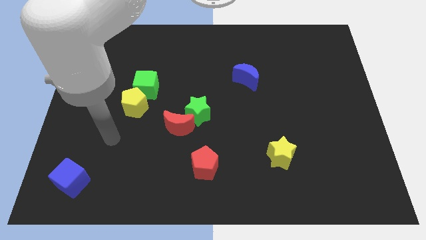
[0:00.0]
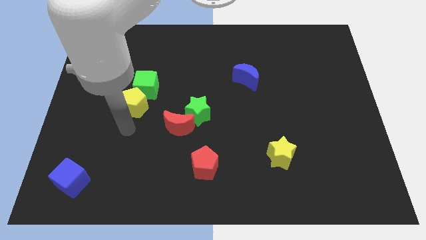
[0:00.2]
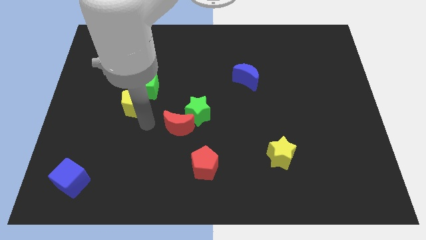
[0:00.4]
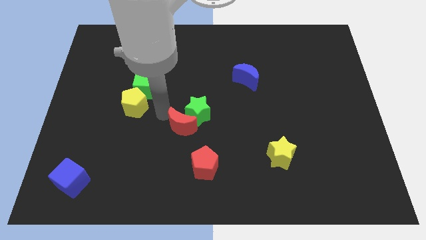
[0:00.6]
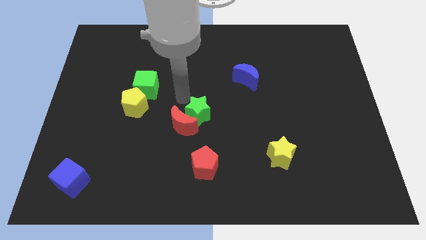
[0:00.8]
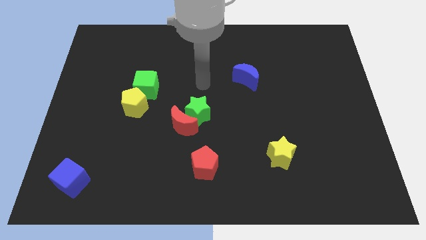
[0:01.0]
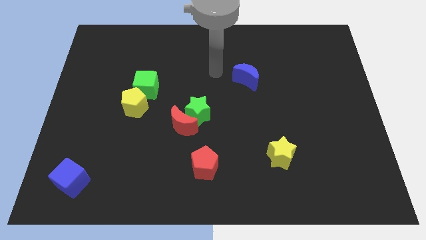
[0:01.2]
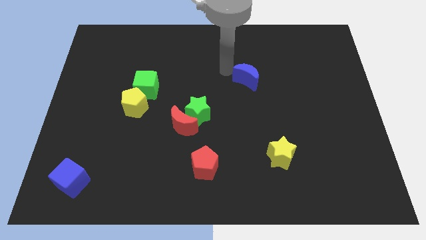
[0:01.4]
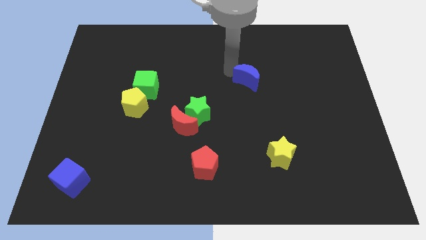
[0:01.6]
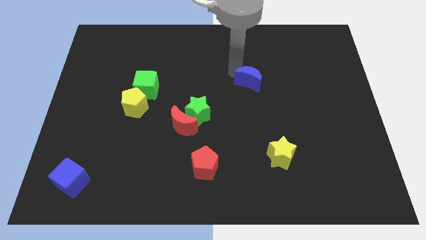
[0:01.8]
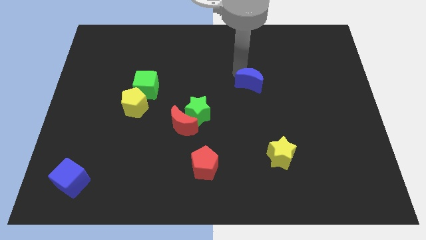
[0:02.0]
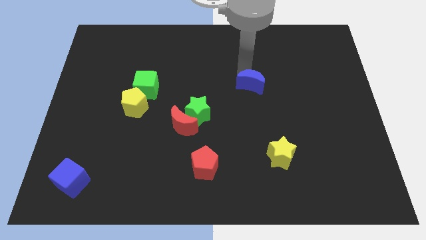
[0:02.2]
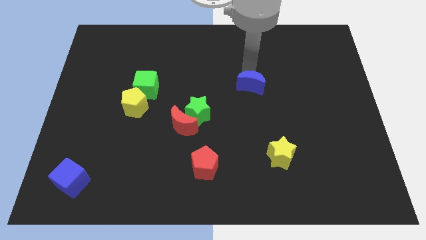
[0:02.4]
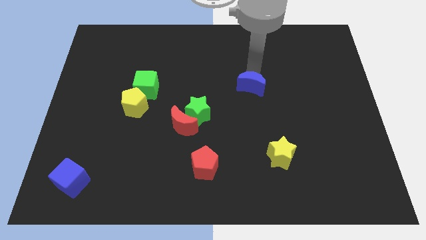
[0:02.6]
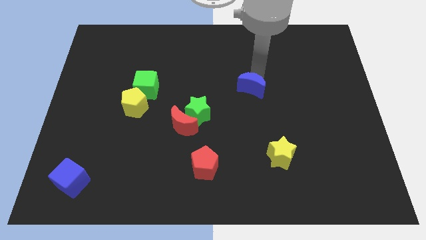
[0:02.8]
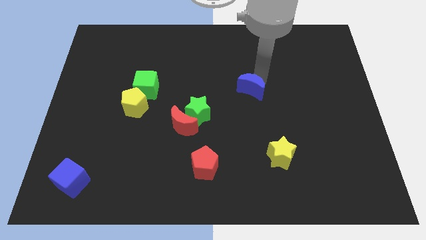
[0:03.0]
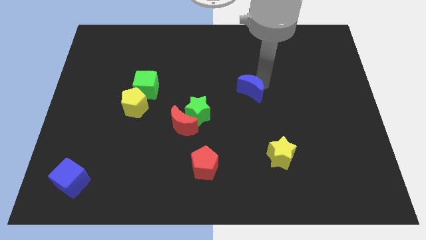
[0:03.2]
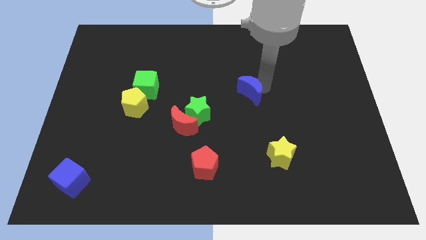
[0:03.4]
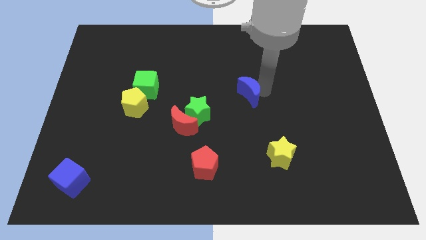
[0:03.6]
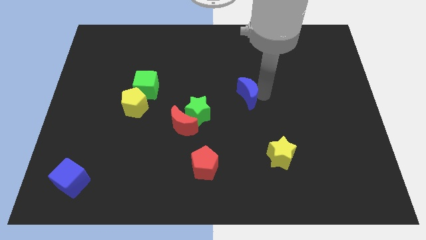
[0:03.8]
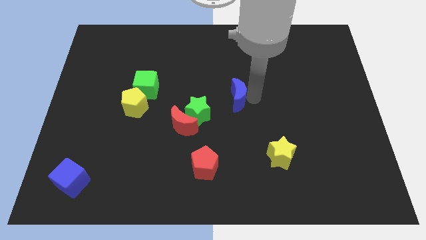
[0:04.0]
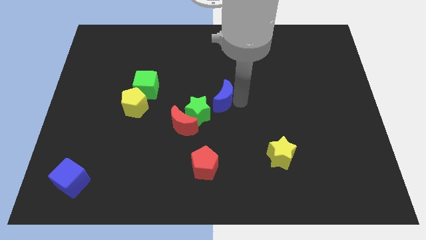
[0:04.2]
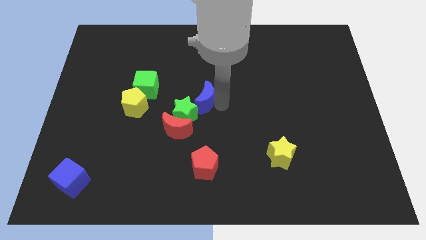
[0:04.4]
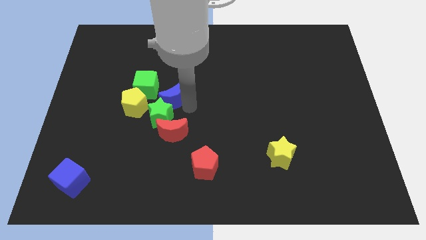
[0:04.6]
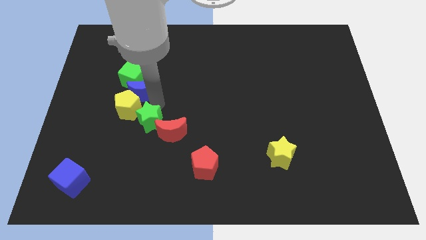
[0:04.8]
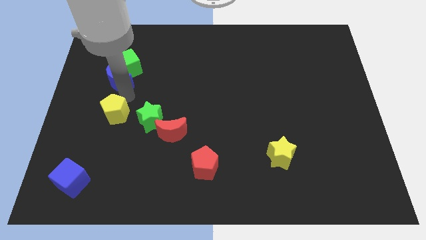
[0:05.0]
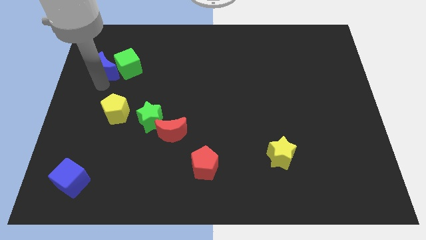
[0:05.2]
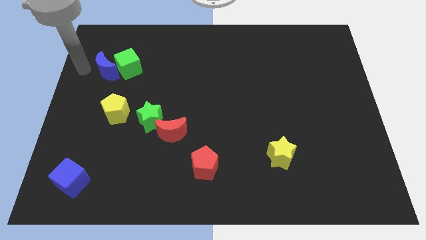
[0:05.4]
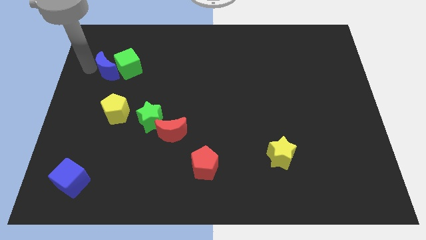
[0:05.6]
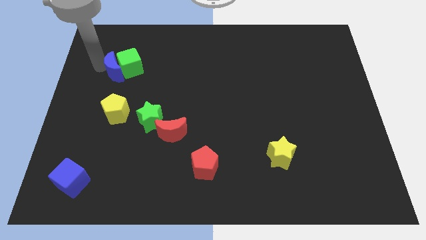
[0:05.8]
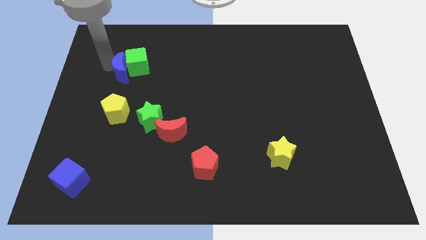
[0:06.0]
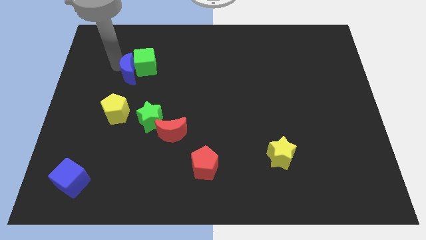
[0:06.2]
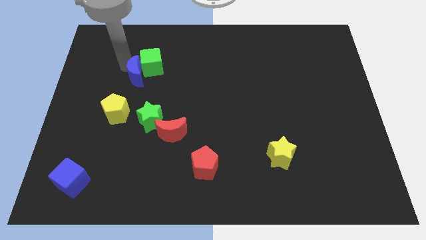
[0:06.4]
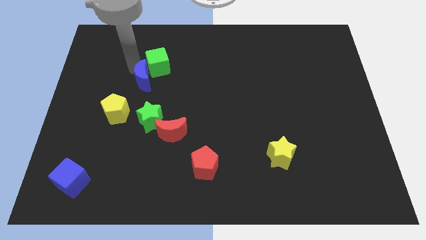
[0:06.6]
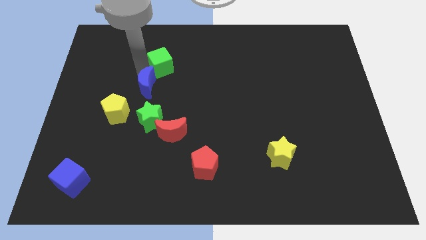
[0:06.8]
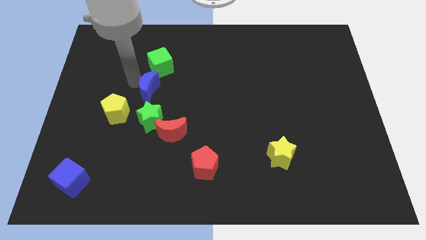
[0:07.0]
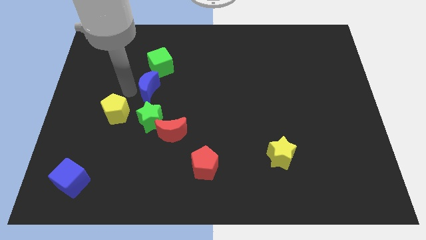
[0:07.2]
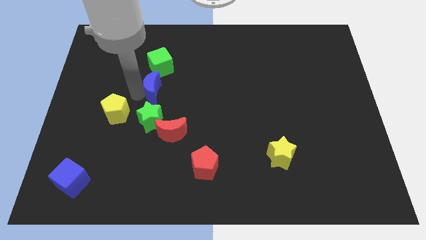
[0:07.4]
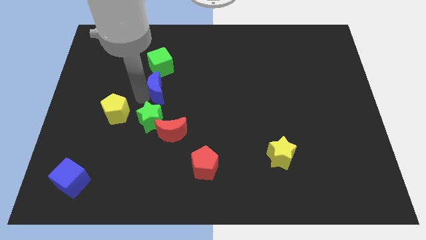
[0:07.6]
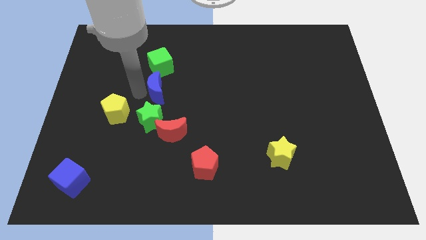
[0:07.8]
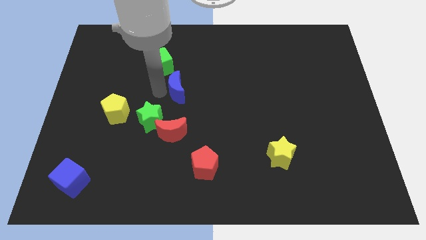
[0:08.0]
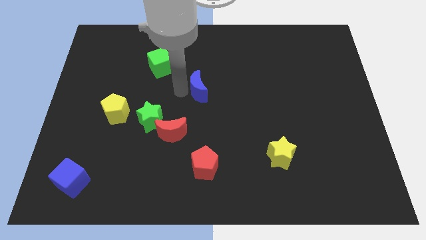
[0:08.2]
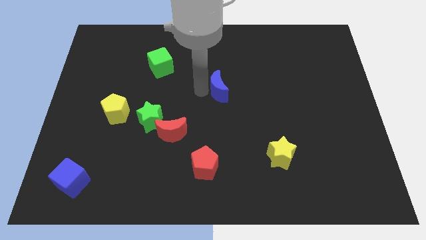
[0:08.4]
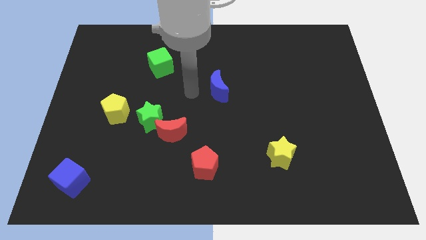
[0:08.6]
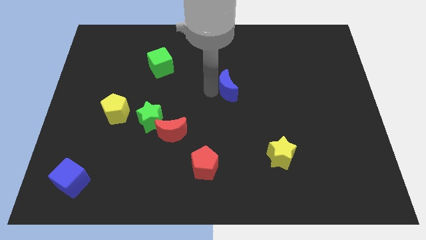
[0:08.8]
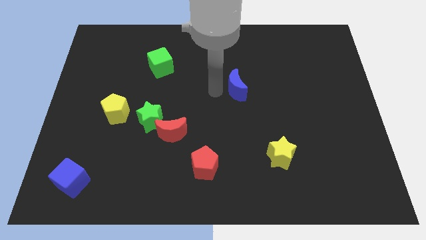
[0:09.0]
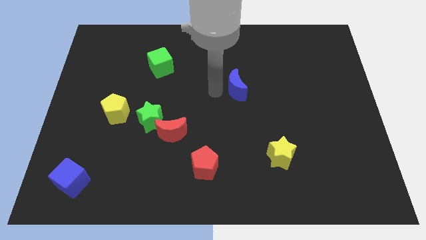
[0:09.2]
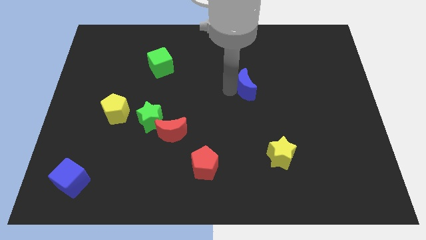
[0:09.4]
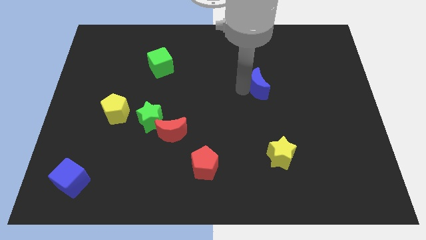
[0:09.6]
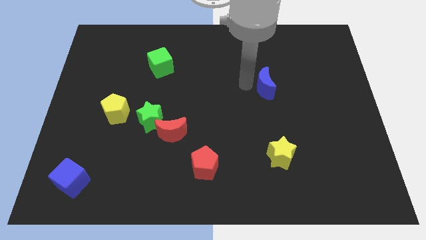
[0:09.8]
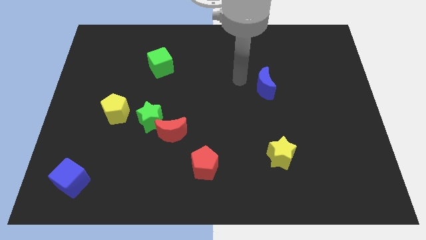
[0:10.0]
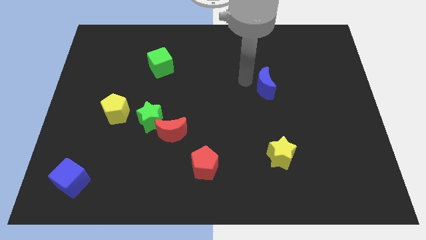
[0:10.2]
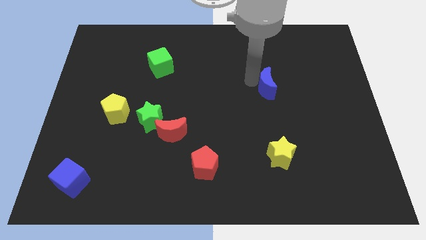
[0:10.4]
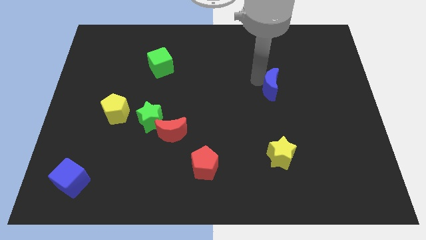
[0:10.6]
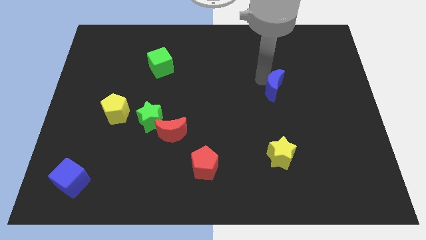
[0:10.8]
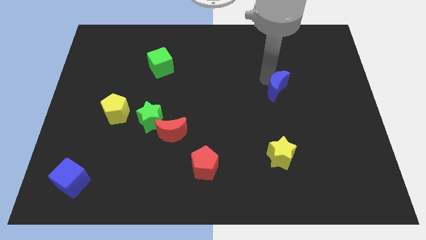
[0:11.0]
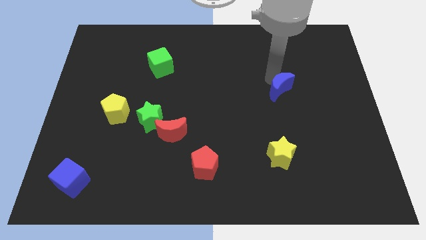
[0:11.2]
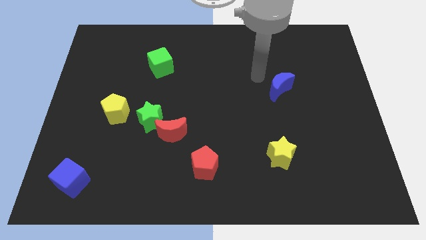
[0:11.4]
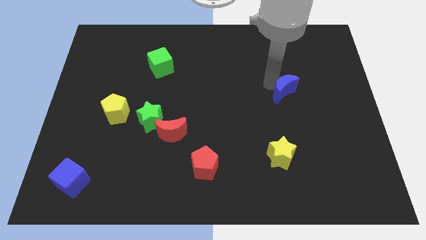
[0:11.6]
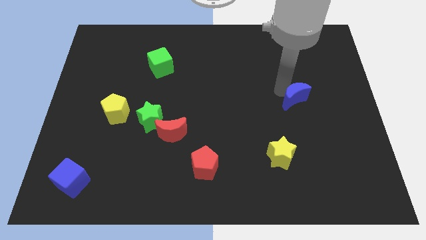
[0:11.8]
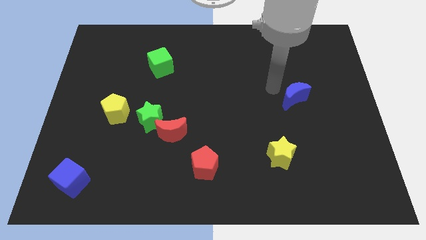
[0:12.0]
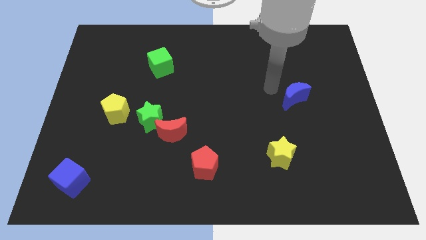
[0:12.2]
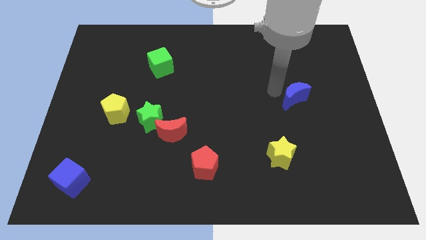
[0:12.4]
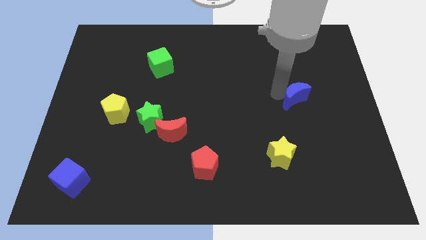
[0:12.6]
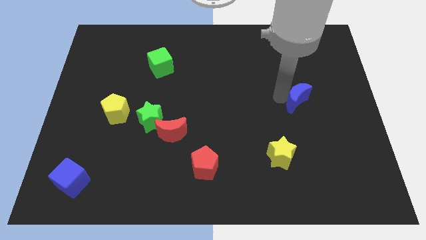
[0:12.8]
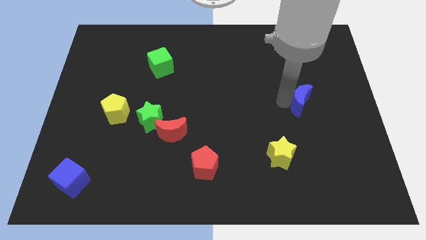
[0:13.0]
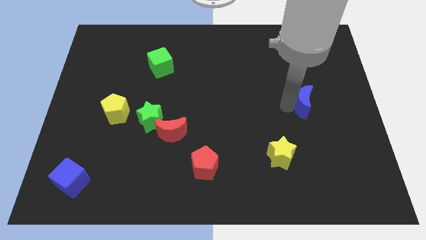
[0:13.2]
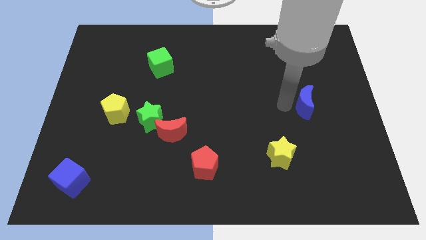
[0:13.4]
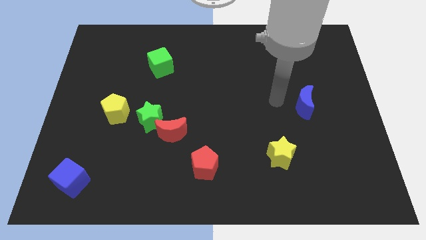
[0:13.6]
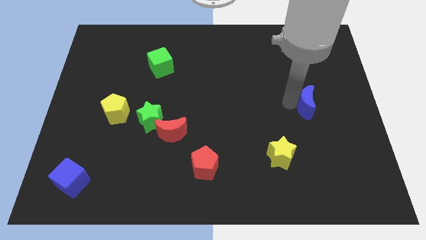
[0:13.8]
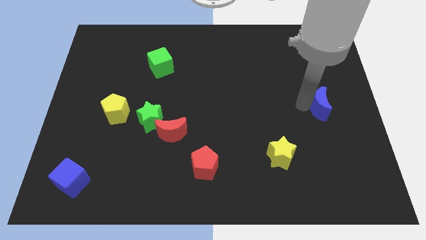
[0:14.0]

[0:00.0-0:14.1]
put the blue moon to the right side

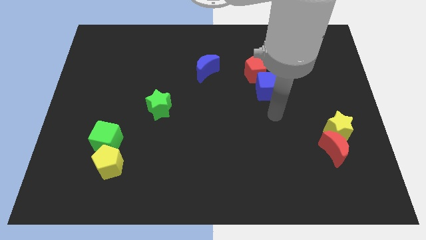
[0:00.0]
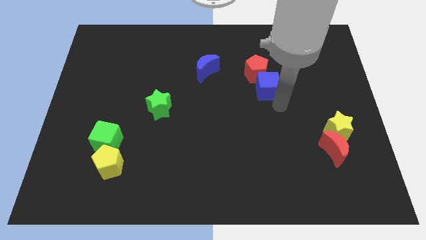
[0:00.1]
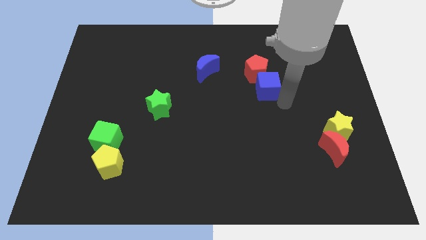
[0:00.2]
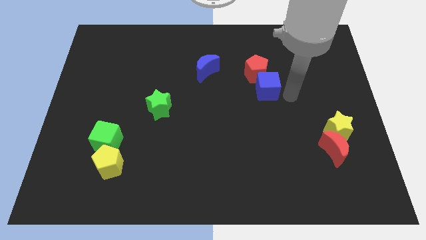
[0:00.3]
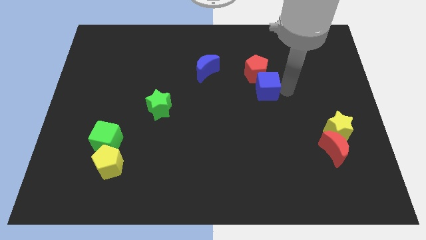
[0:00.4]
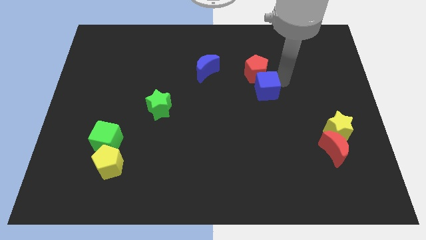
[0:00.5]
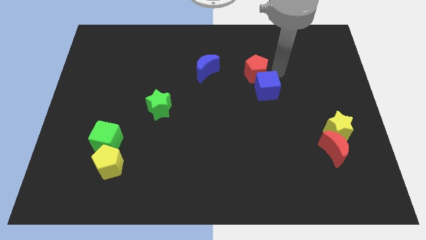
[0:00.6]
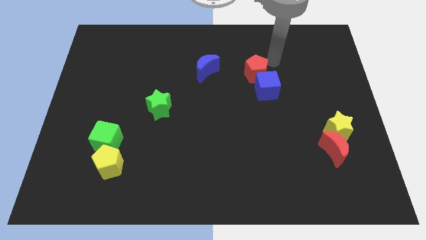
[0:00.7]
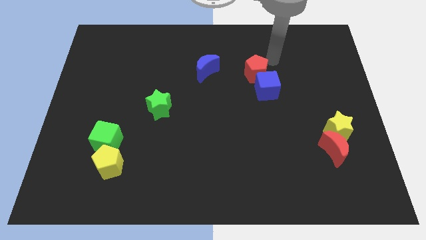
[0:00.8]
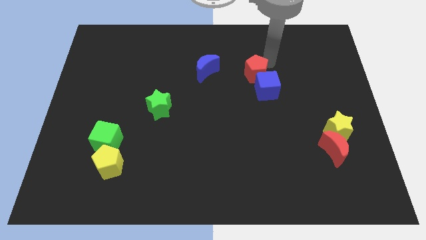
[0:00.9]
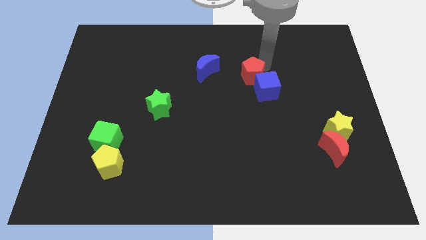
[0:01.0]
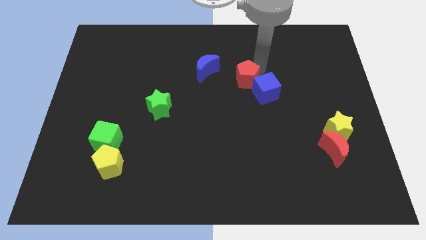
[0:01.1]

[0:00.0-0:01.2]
slide the red pentagon to the center of the board
